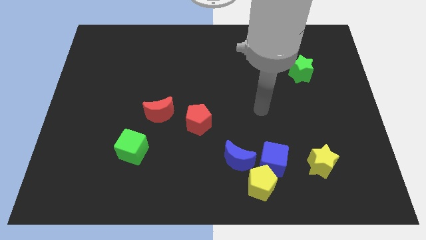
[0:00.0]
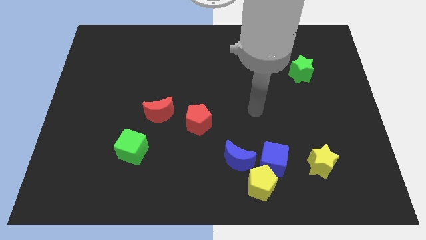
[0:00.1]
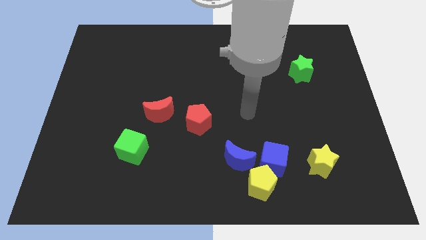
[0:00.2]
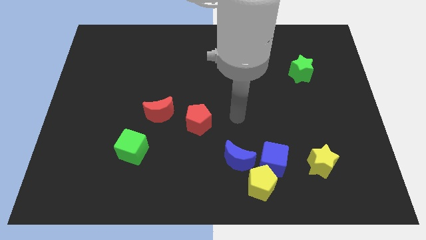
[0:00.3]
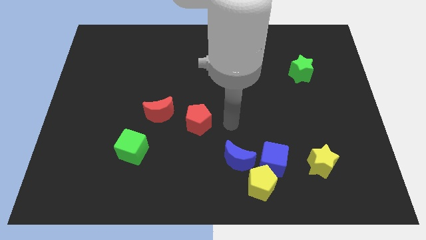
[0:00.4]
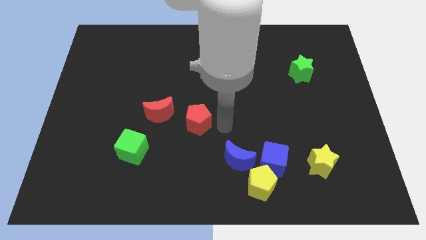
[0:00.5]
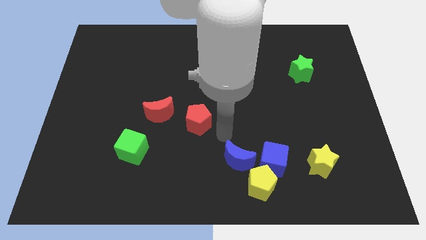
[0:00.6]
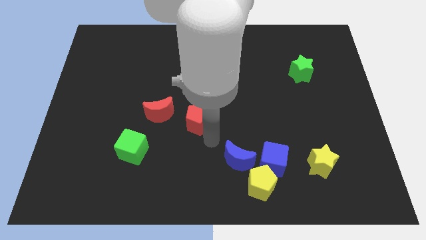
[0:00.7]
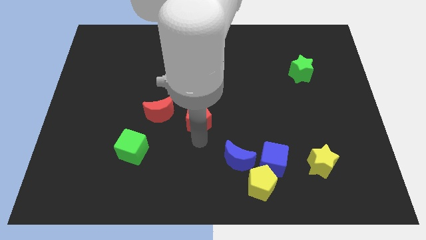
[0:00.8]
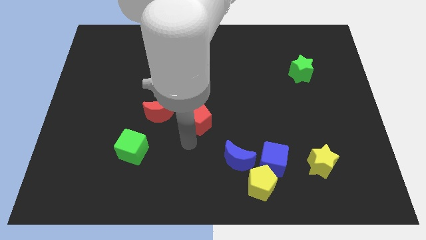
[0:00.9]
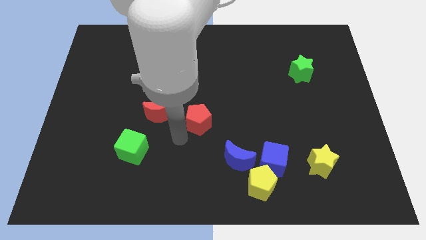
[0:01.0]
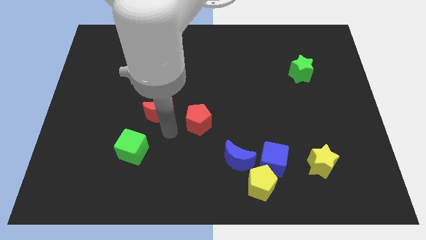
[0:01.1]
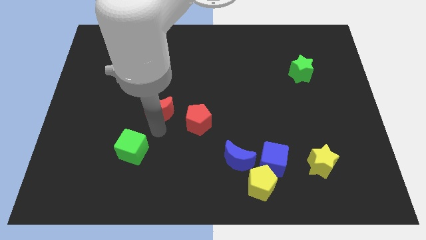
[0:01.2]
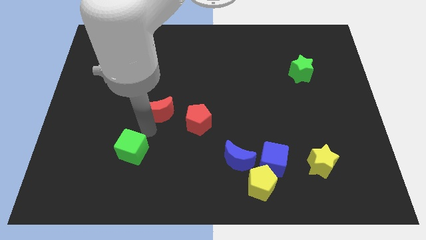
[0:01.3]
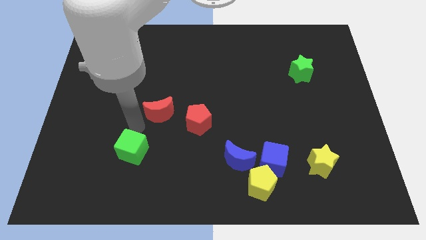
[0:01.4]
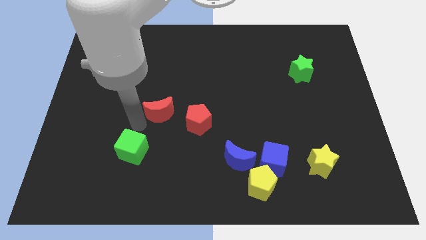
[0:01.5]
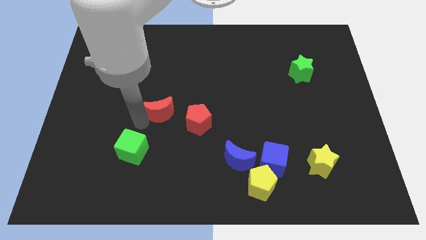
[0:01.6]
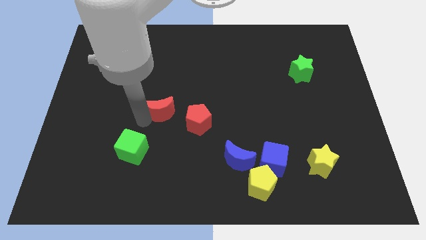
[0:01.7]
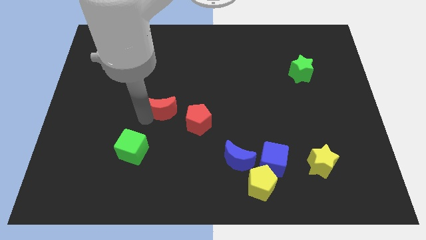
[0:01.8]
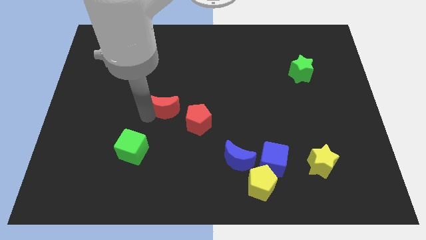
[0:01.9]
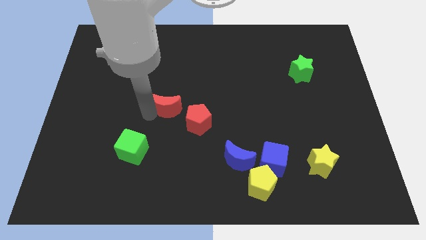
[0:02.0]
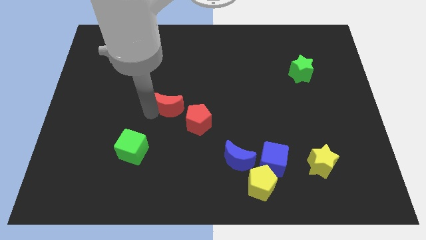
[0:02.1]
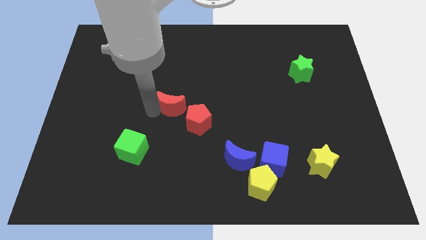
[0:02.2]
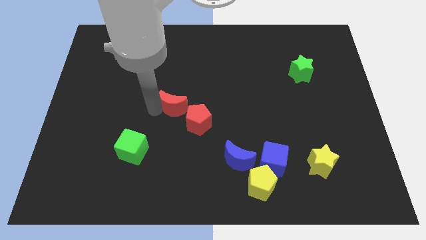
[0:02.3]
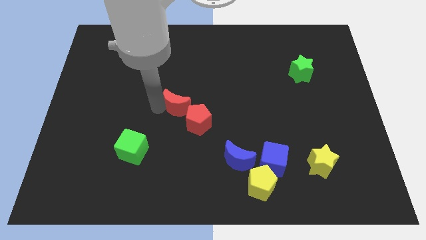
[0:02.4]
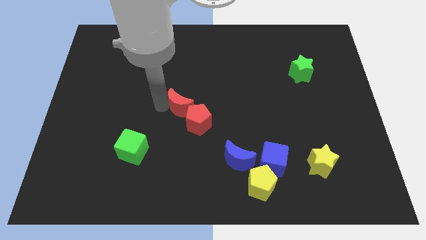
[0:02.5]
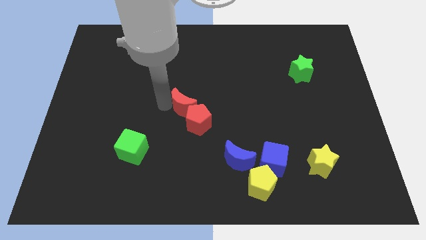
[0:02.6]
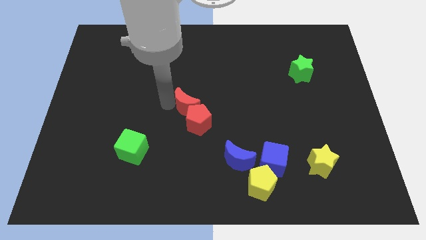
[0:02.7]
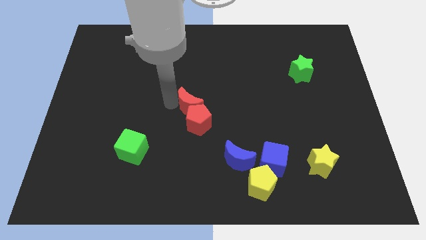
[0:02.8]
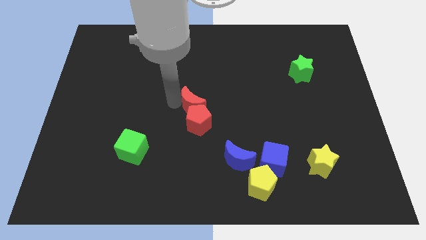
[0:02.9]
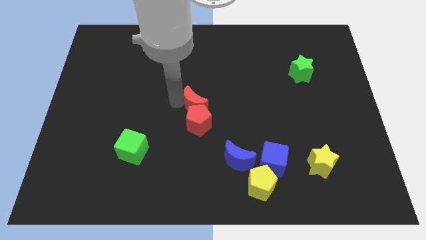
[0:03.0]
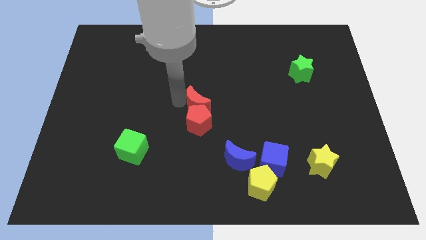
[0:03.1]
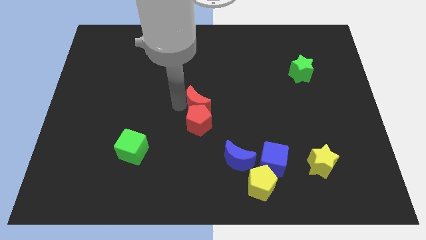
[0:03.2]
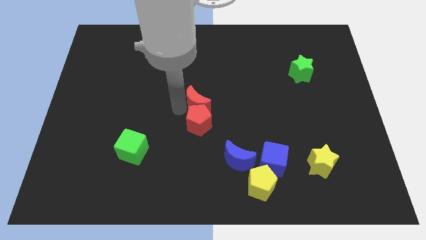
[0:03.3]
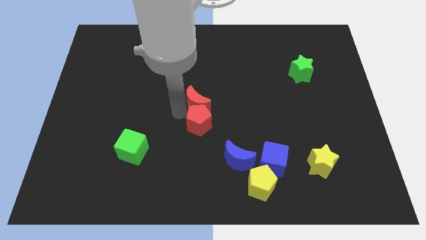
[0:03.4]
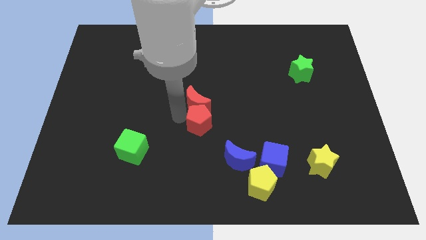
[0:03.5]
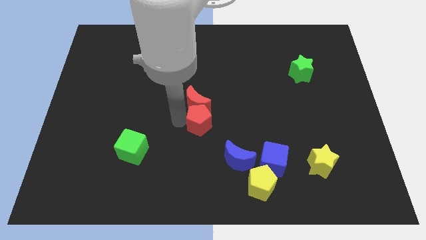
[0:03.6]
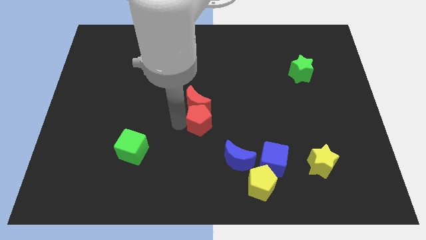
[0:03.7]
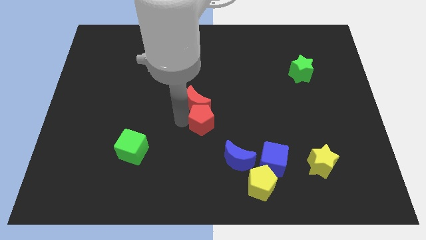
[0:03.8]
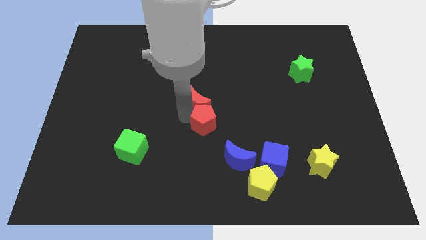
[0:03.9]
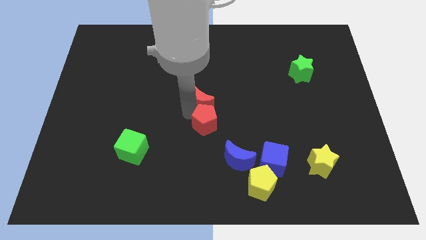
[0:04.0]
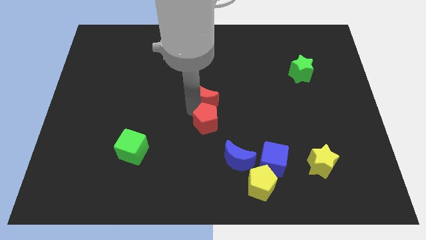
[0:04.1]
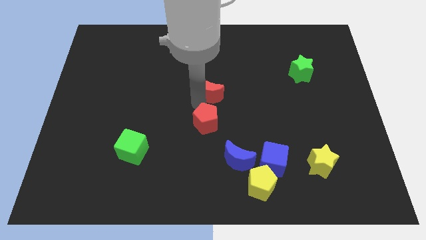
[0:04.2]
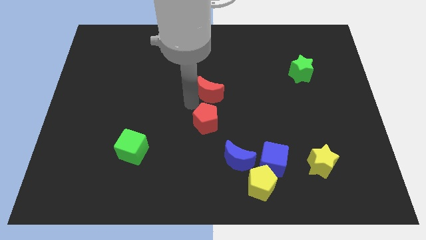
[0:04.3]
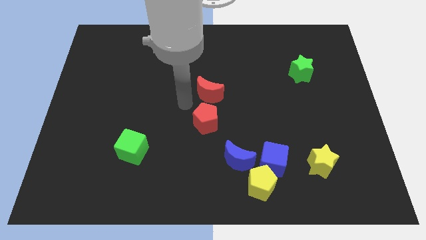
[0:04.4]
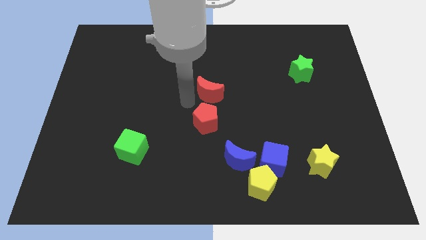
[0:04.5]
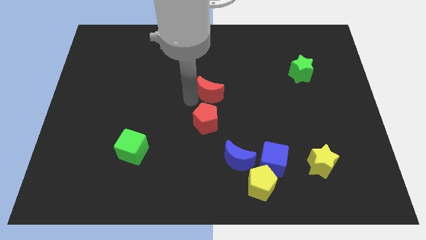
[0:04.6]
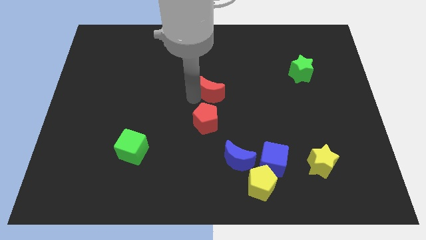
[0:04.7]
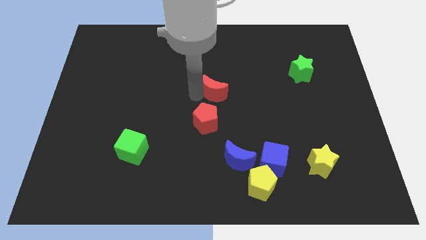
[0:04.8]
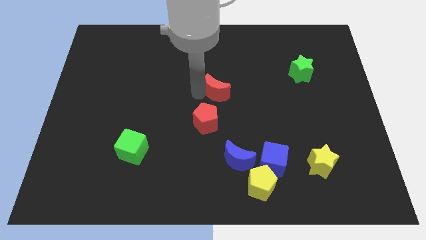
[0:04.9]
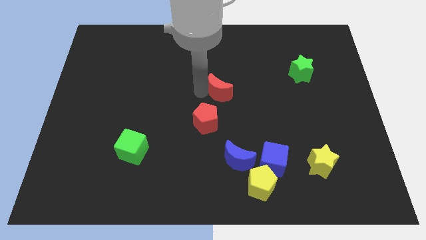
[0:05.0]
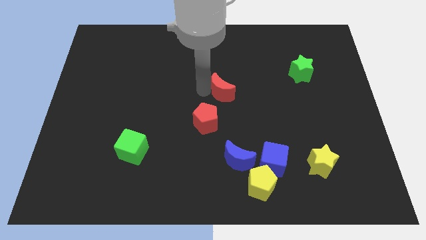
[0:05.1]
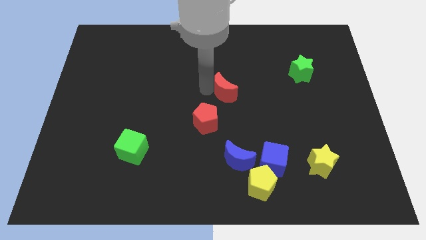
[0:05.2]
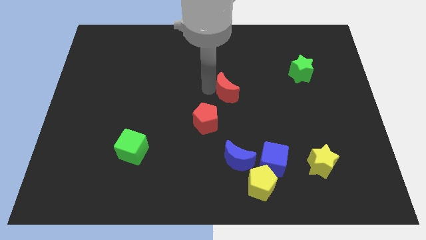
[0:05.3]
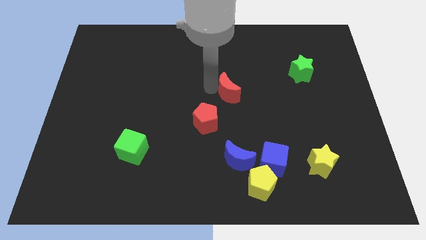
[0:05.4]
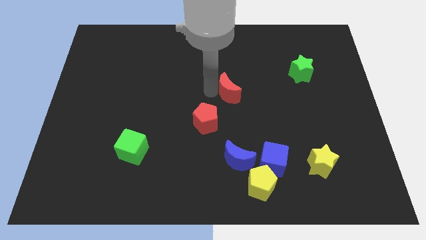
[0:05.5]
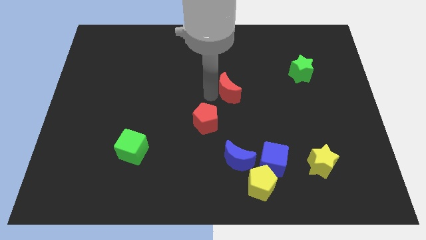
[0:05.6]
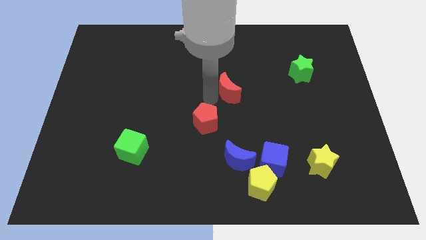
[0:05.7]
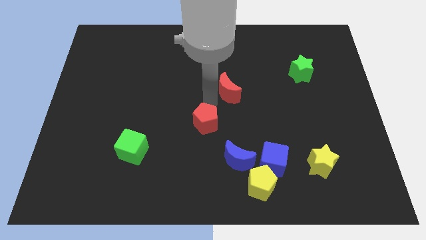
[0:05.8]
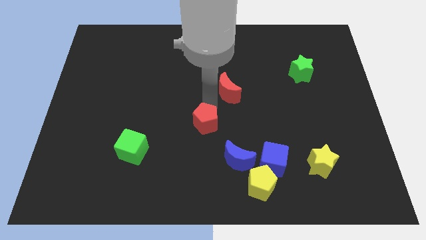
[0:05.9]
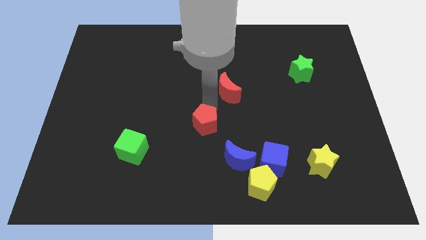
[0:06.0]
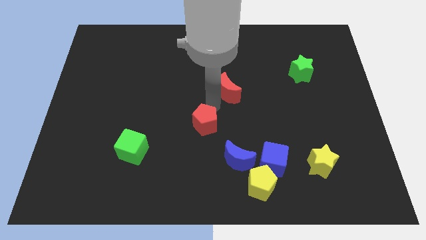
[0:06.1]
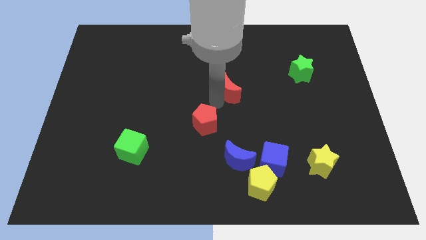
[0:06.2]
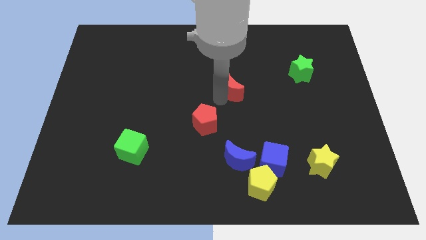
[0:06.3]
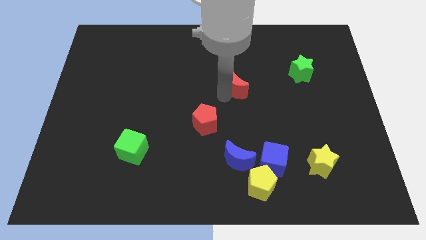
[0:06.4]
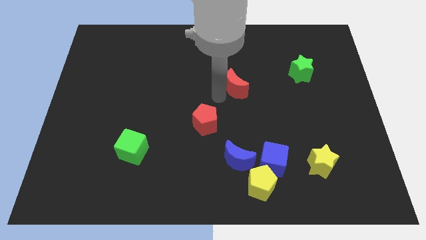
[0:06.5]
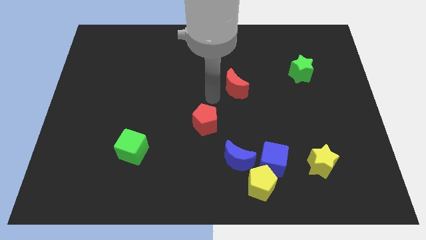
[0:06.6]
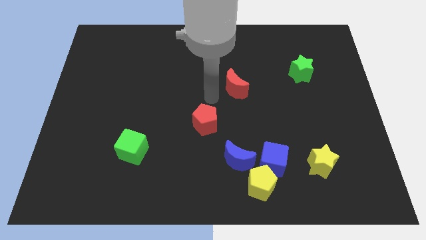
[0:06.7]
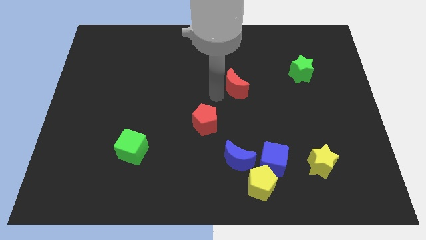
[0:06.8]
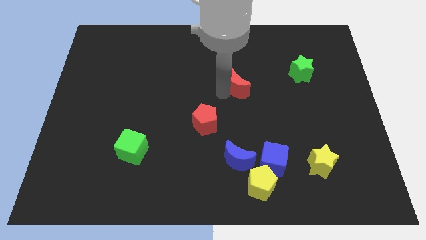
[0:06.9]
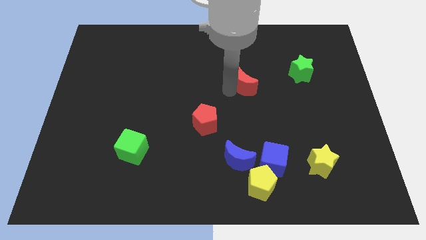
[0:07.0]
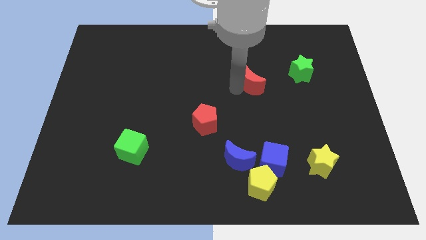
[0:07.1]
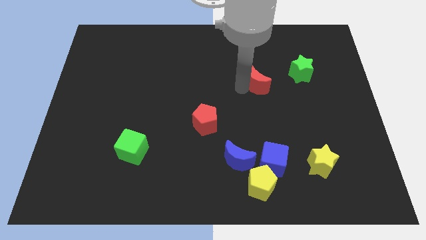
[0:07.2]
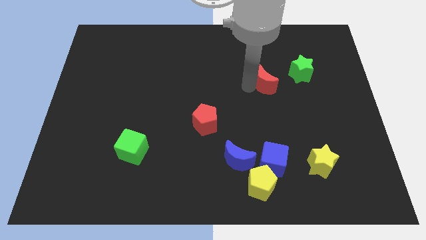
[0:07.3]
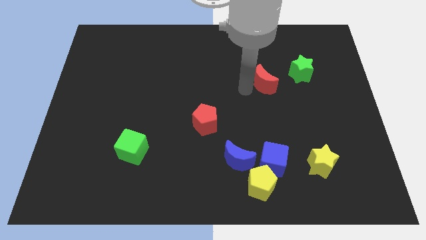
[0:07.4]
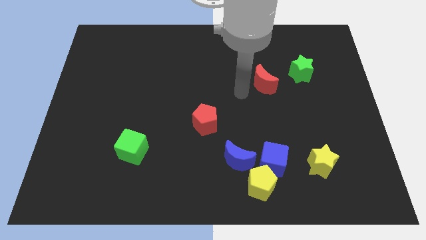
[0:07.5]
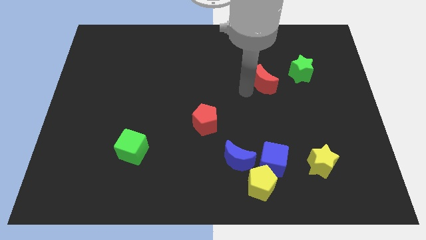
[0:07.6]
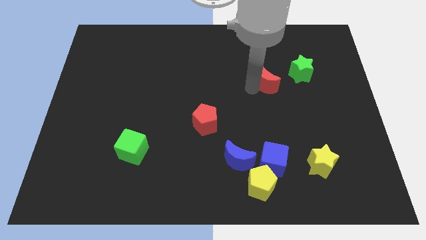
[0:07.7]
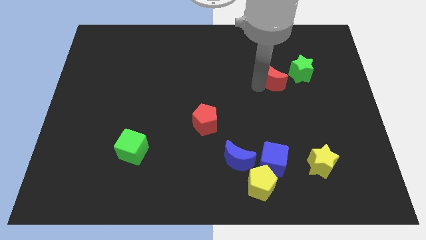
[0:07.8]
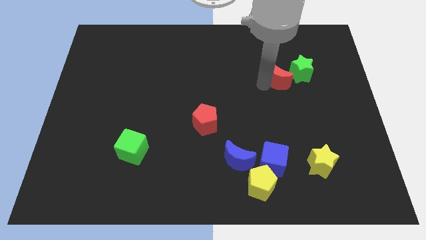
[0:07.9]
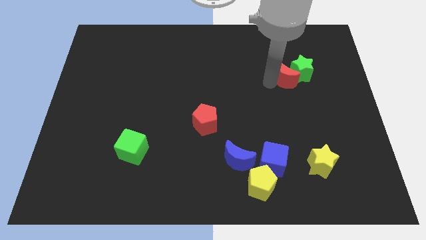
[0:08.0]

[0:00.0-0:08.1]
push the red moon close to the green star
